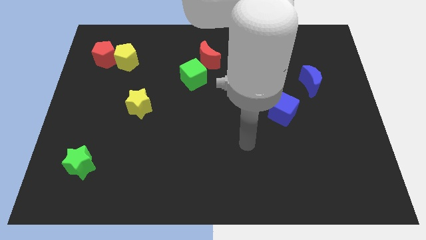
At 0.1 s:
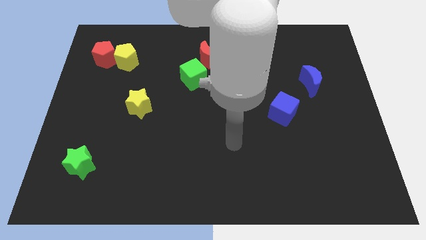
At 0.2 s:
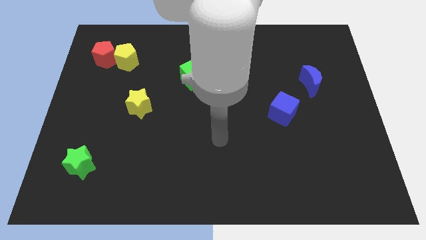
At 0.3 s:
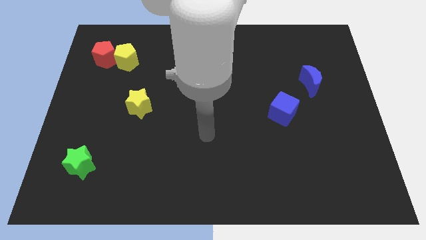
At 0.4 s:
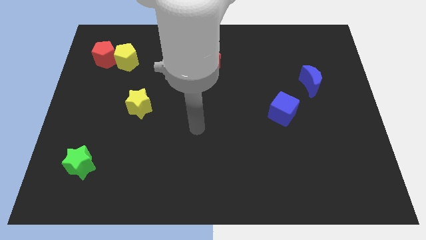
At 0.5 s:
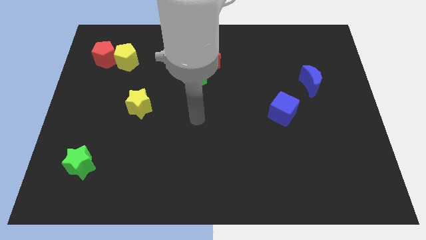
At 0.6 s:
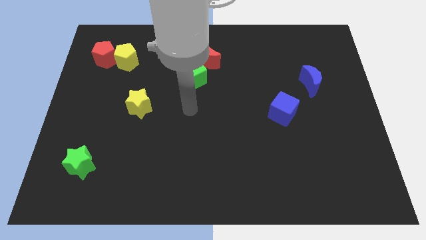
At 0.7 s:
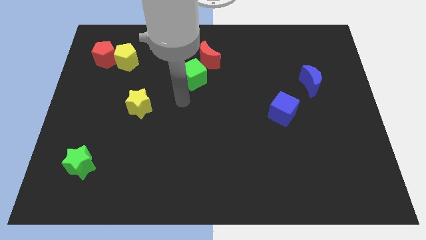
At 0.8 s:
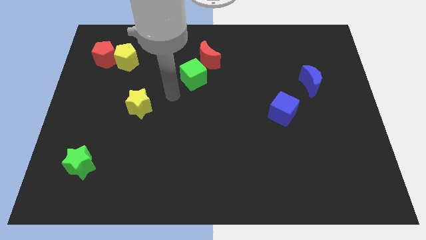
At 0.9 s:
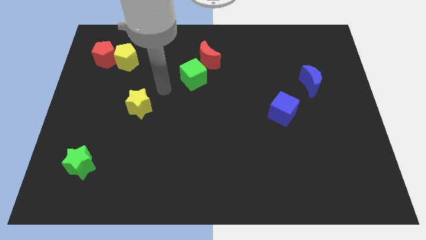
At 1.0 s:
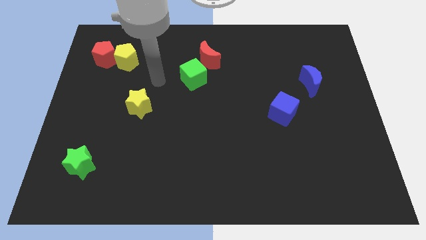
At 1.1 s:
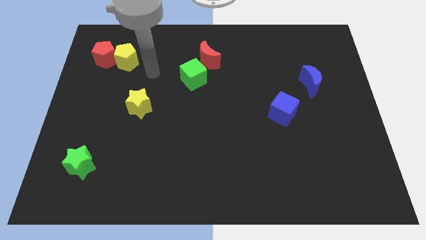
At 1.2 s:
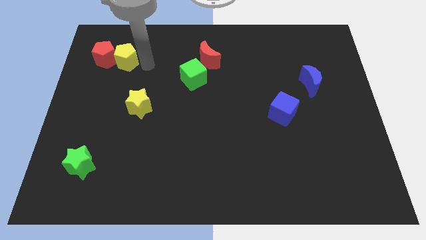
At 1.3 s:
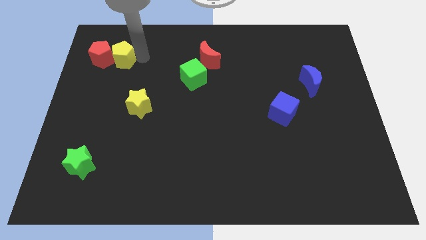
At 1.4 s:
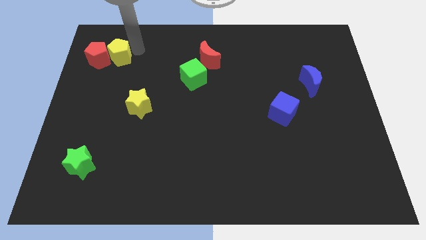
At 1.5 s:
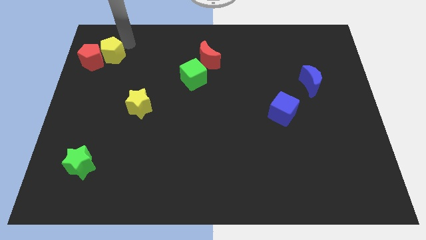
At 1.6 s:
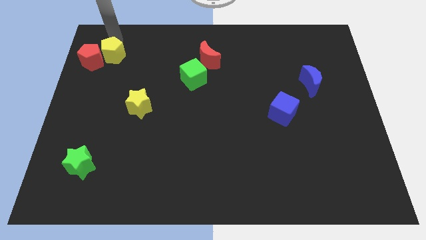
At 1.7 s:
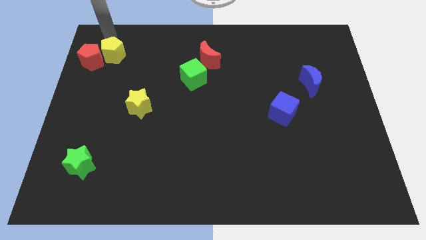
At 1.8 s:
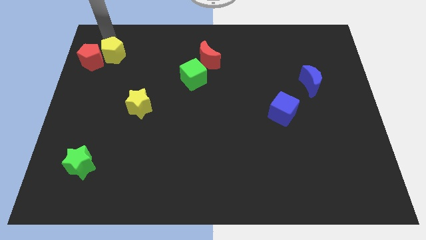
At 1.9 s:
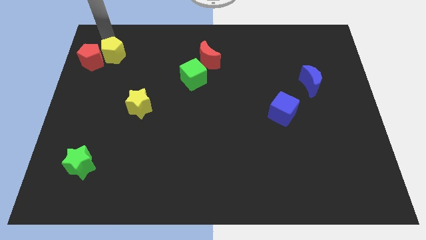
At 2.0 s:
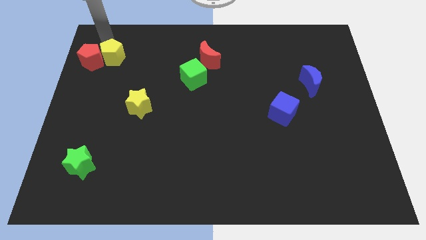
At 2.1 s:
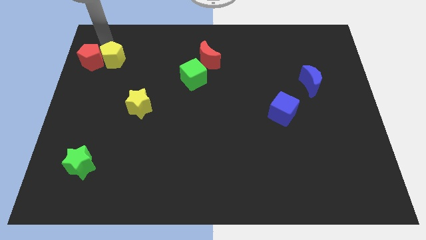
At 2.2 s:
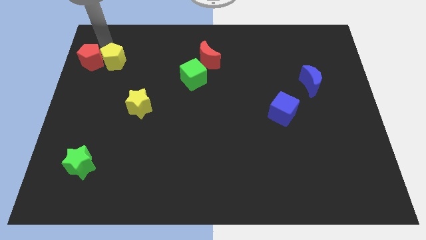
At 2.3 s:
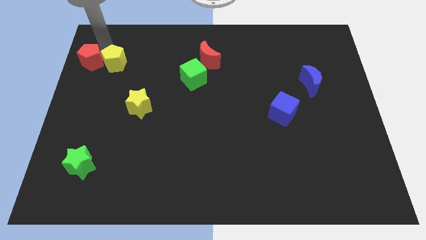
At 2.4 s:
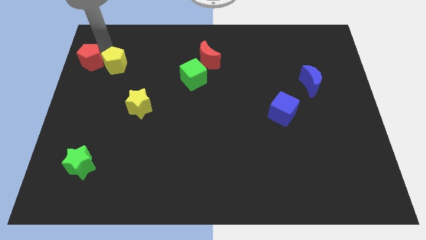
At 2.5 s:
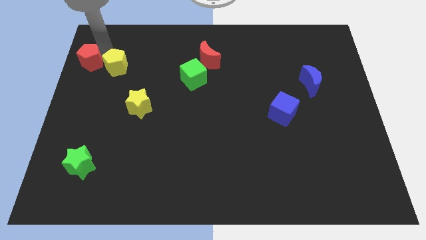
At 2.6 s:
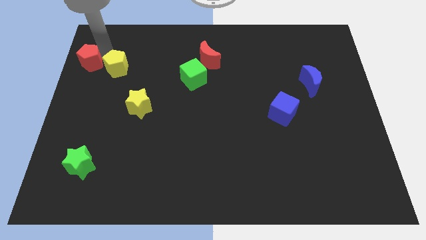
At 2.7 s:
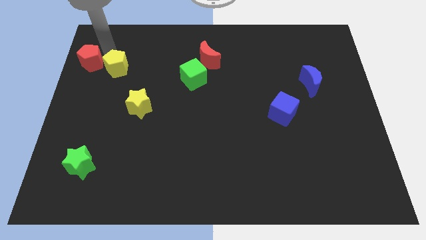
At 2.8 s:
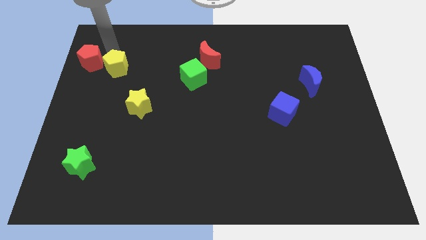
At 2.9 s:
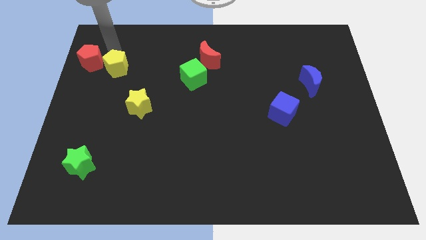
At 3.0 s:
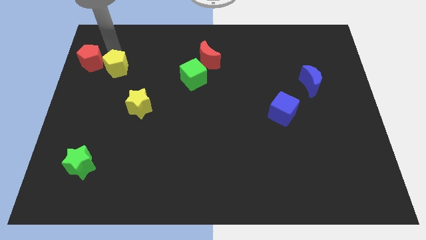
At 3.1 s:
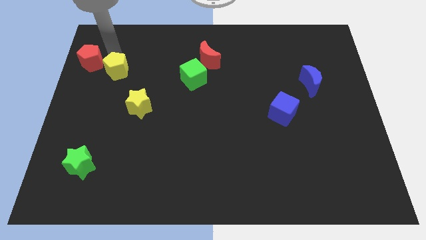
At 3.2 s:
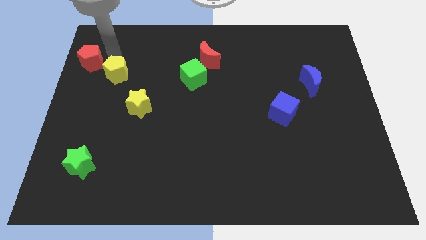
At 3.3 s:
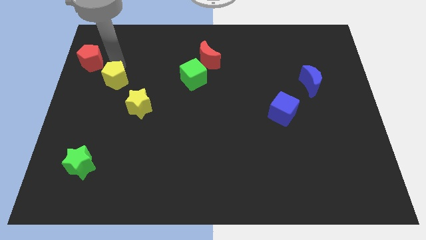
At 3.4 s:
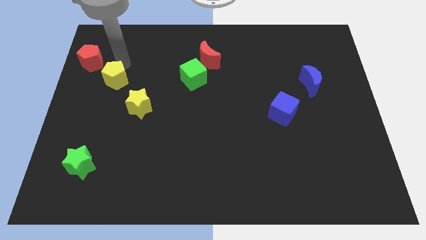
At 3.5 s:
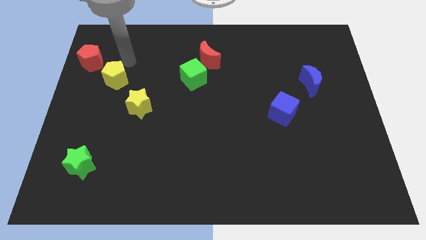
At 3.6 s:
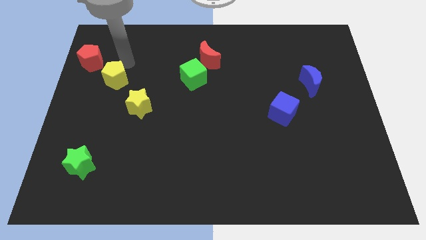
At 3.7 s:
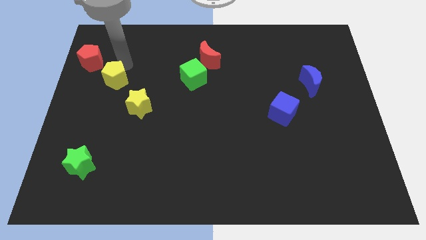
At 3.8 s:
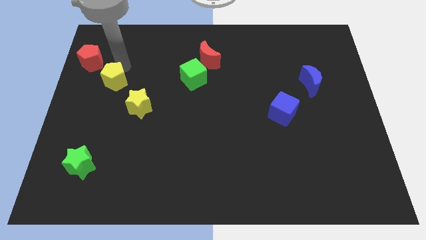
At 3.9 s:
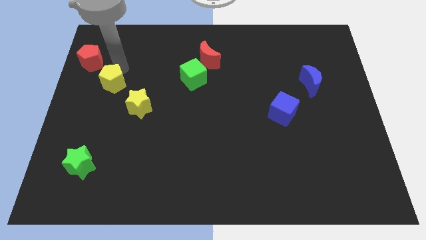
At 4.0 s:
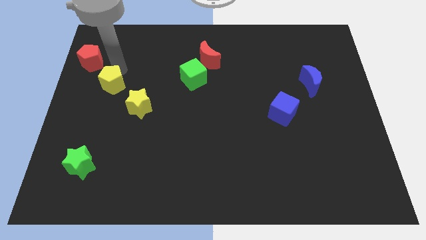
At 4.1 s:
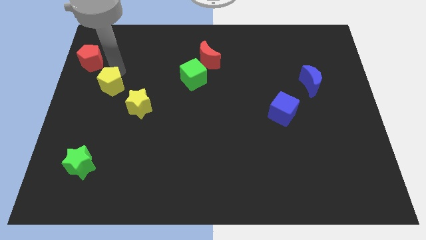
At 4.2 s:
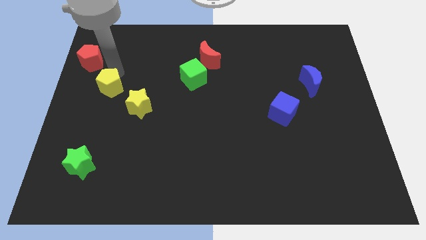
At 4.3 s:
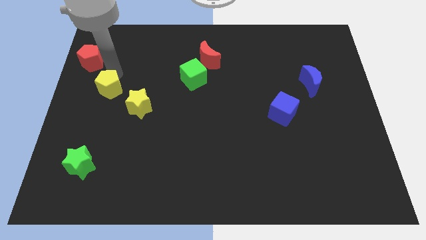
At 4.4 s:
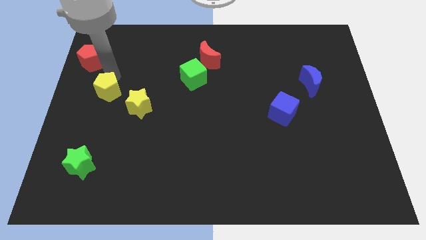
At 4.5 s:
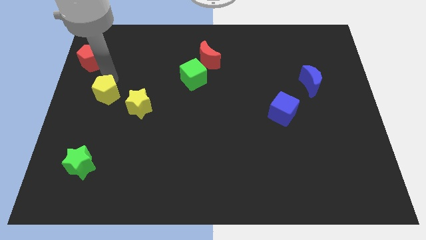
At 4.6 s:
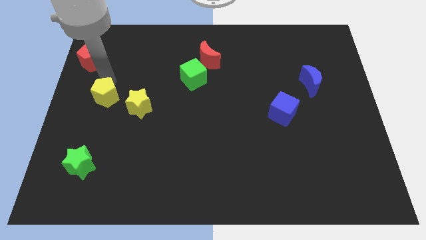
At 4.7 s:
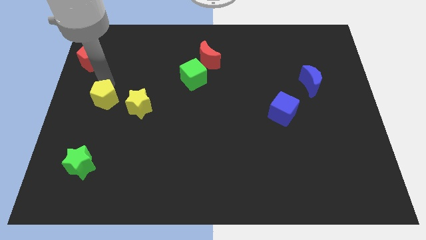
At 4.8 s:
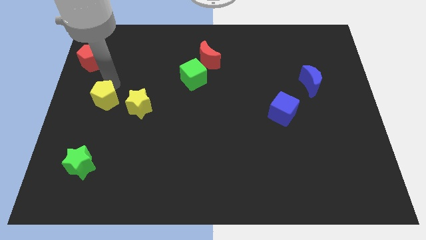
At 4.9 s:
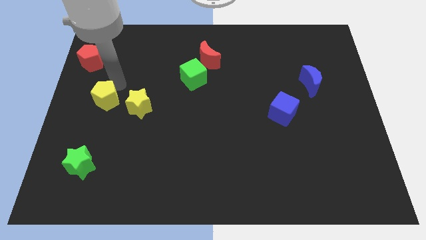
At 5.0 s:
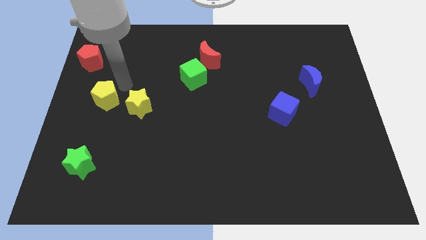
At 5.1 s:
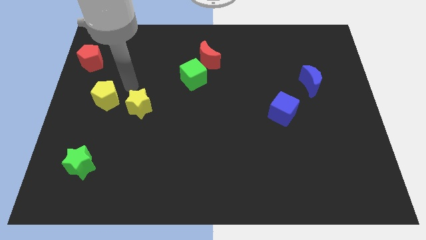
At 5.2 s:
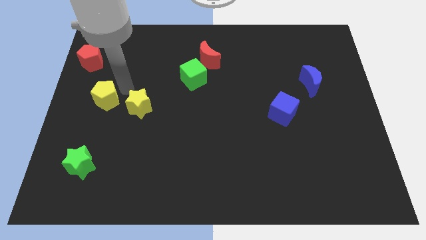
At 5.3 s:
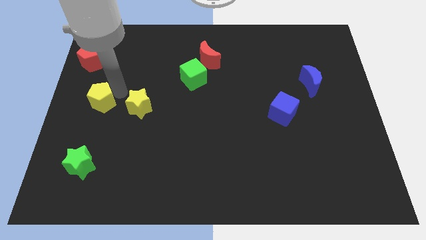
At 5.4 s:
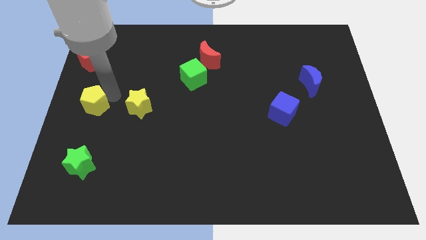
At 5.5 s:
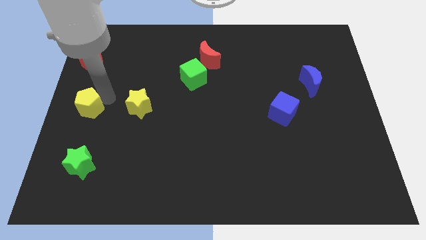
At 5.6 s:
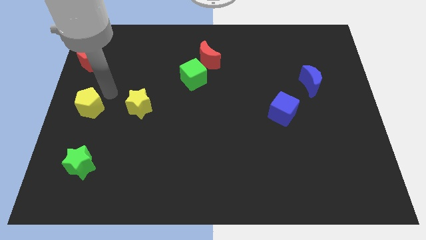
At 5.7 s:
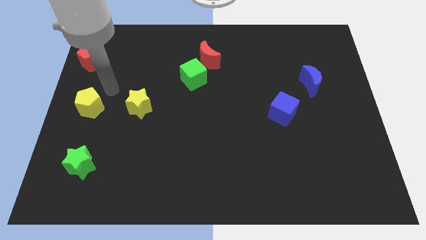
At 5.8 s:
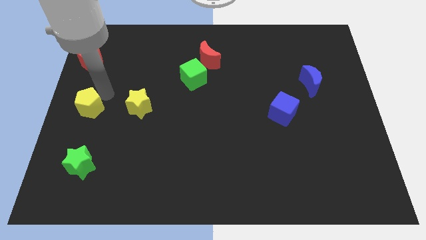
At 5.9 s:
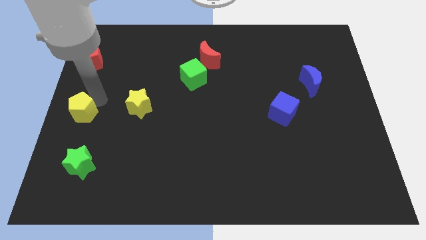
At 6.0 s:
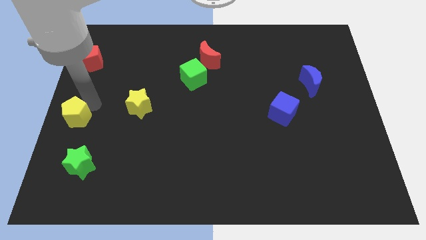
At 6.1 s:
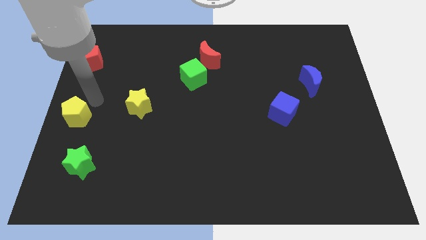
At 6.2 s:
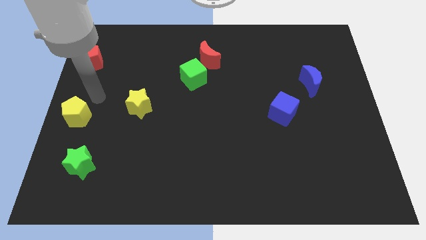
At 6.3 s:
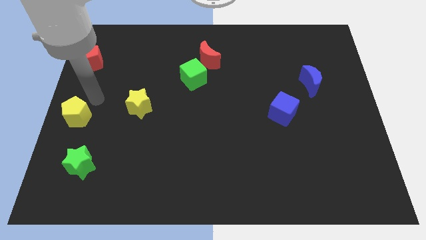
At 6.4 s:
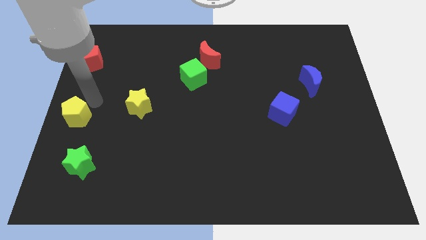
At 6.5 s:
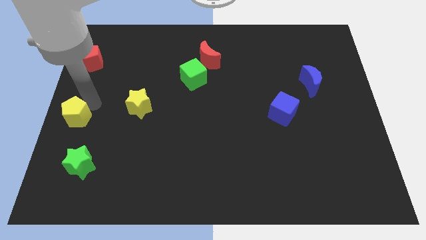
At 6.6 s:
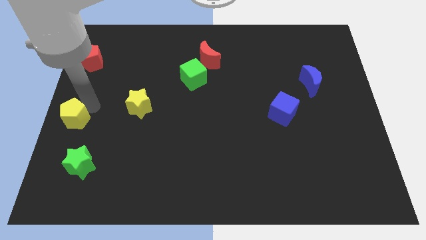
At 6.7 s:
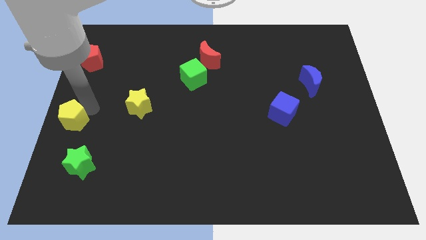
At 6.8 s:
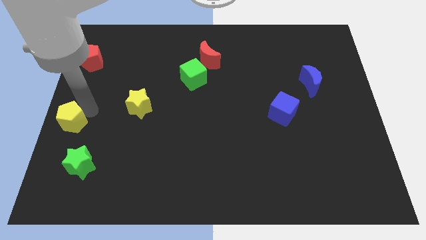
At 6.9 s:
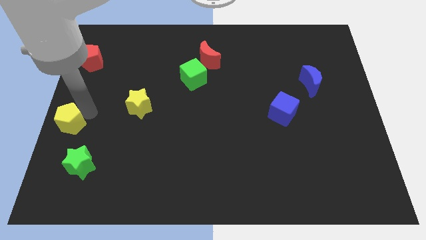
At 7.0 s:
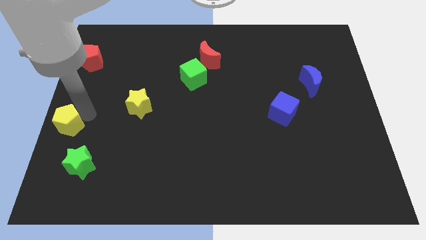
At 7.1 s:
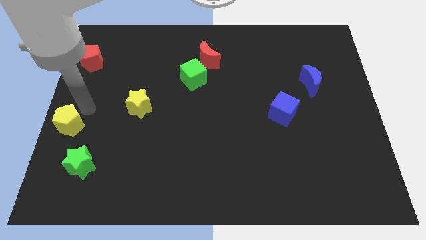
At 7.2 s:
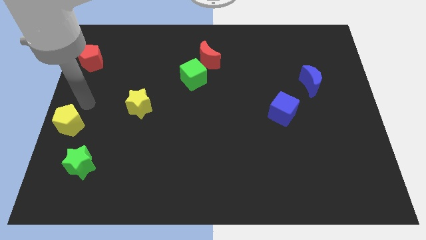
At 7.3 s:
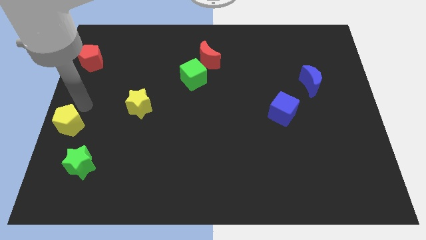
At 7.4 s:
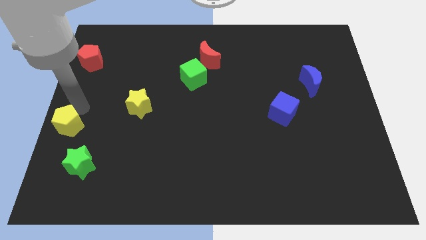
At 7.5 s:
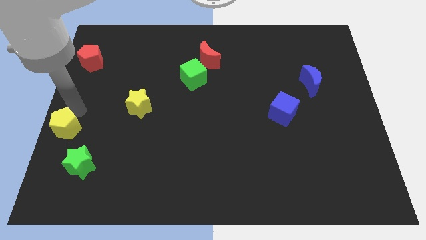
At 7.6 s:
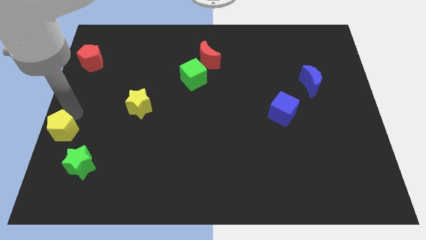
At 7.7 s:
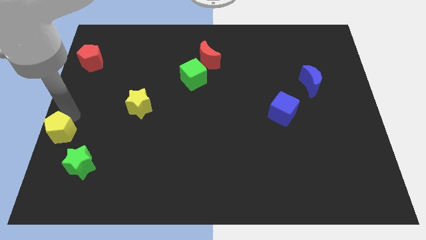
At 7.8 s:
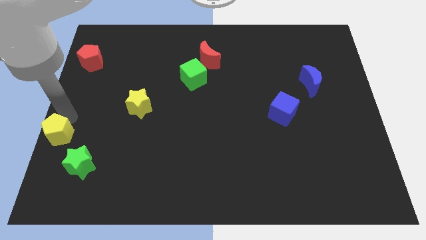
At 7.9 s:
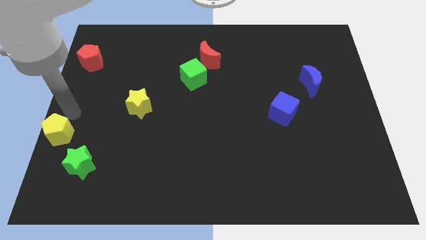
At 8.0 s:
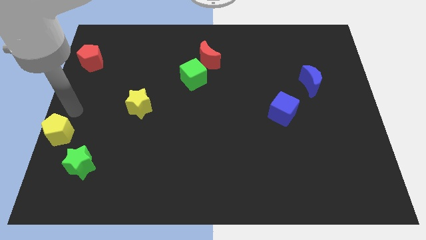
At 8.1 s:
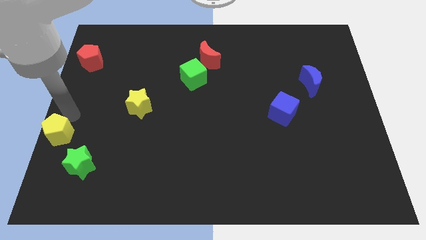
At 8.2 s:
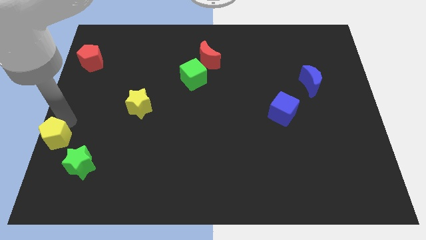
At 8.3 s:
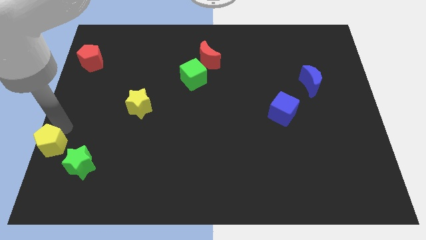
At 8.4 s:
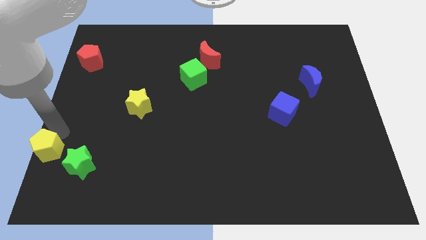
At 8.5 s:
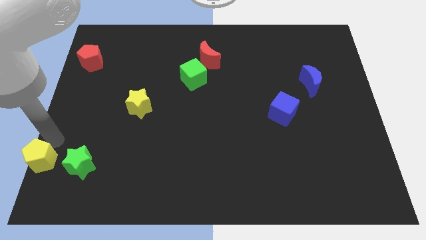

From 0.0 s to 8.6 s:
put the yellow pentagon to the bottom left of the board
